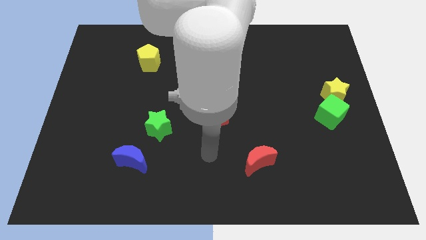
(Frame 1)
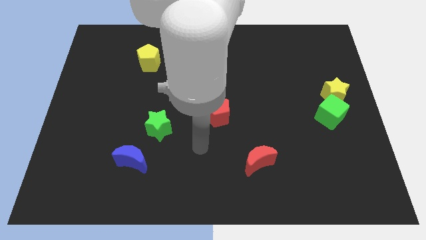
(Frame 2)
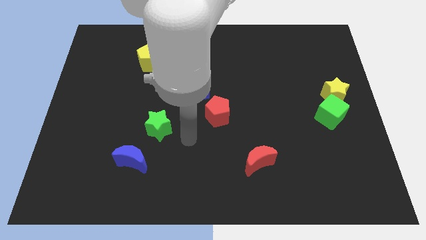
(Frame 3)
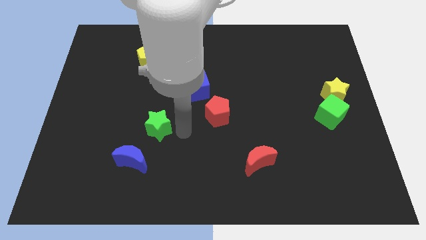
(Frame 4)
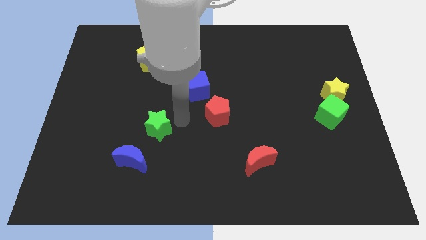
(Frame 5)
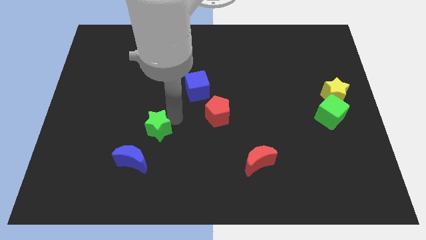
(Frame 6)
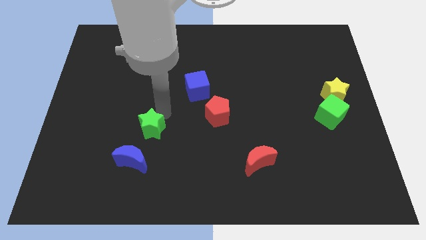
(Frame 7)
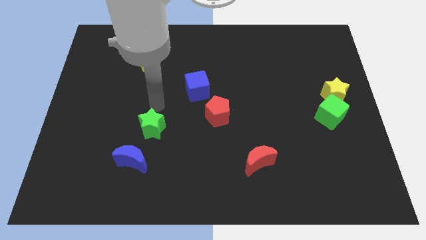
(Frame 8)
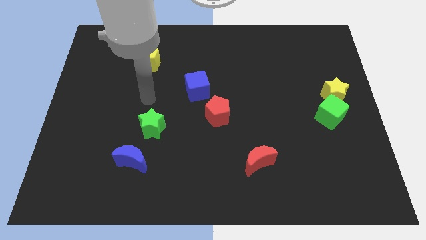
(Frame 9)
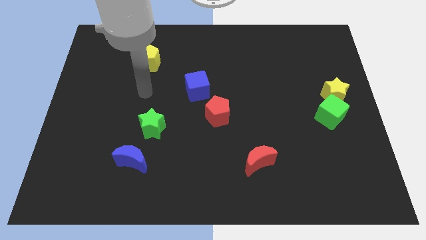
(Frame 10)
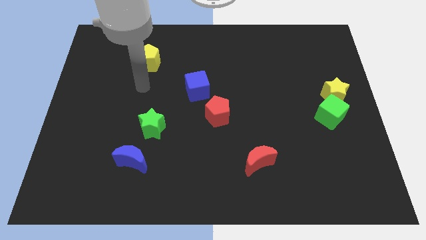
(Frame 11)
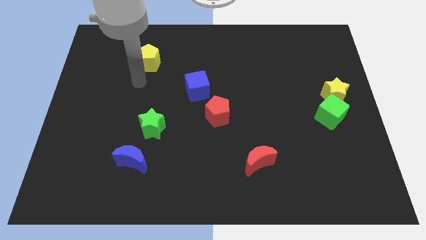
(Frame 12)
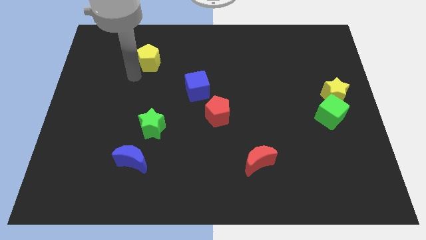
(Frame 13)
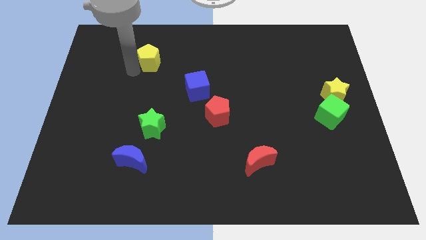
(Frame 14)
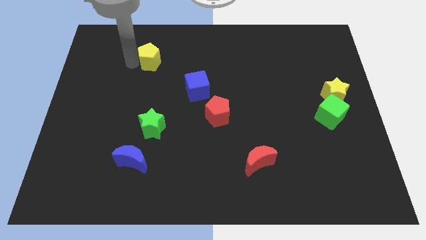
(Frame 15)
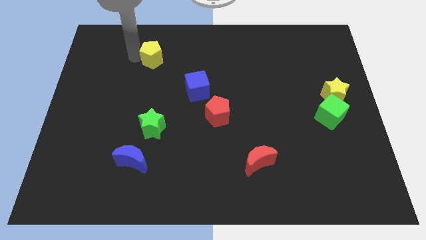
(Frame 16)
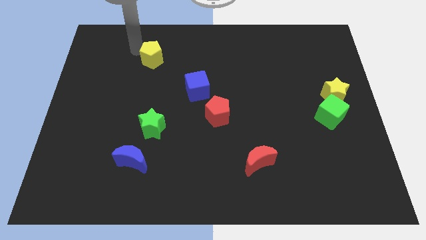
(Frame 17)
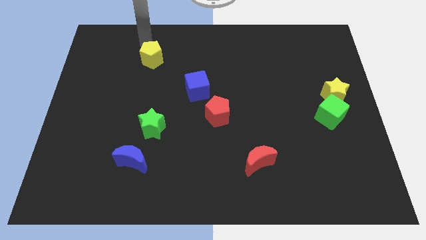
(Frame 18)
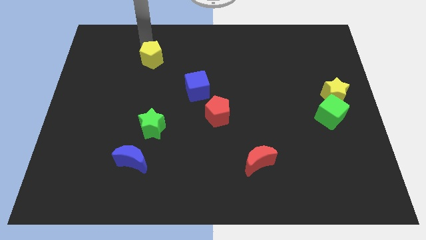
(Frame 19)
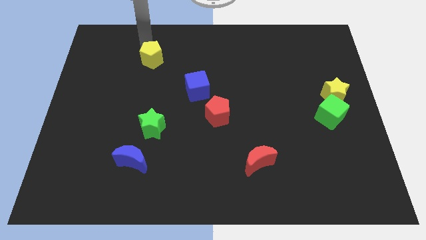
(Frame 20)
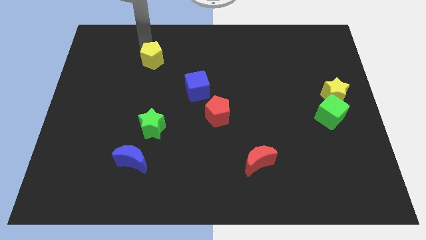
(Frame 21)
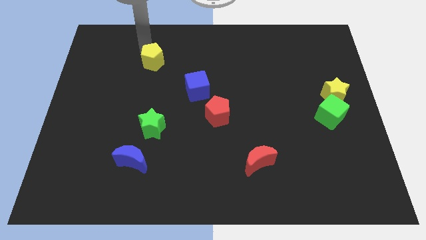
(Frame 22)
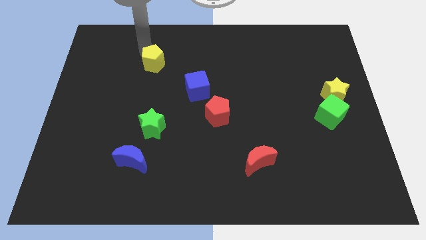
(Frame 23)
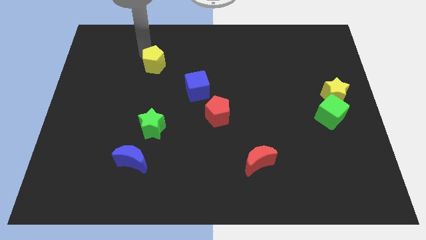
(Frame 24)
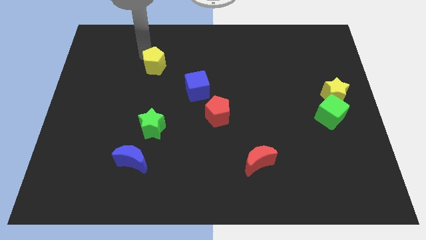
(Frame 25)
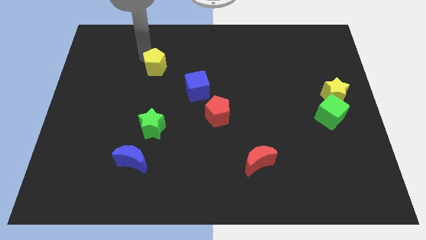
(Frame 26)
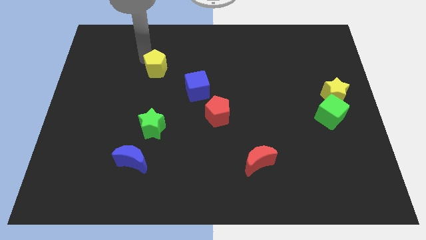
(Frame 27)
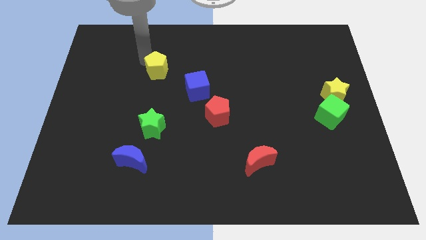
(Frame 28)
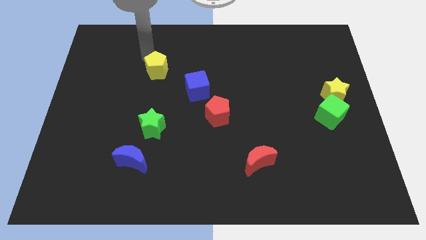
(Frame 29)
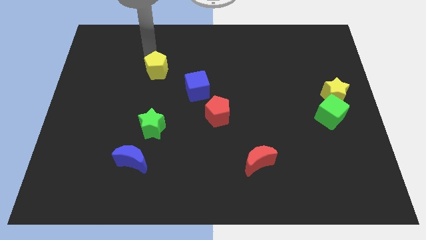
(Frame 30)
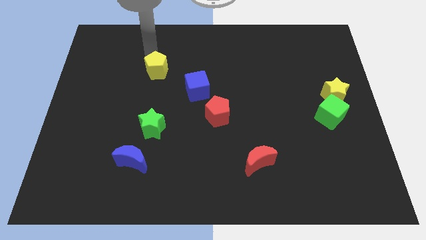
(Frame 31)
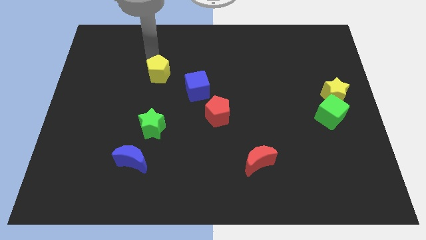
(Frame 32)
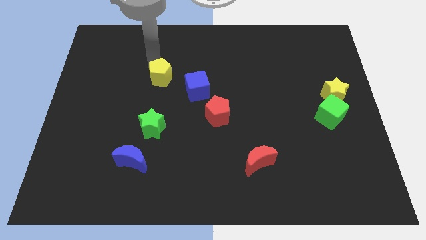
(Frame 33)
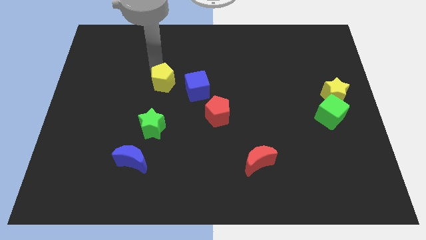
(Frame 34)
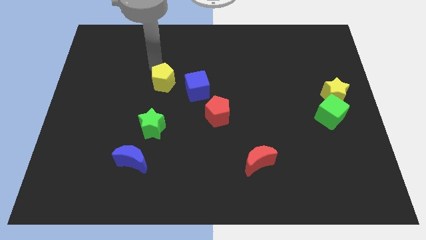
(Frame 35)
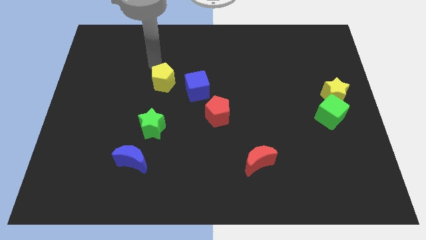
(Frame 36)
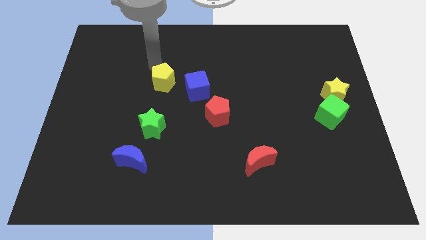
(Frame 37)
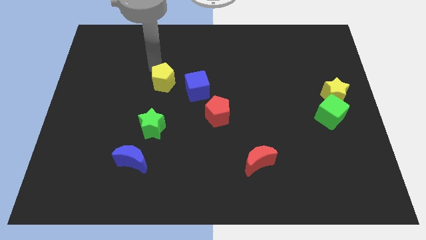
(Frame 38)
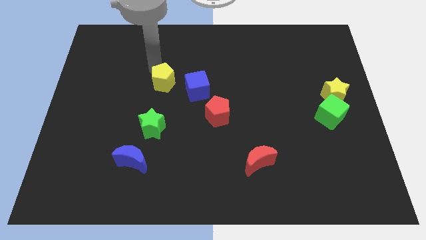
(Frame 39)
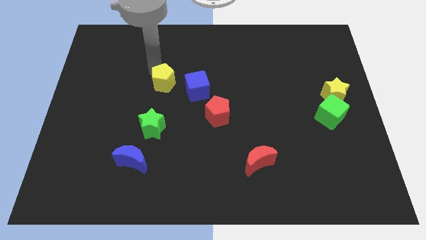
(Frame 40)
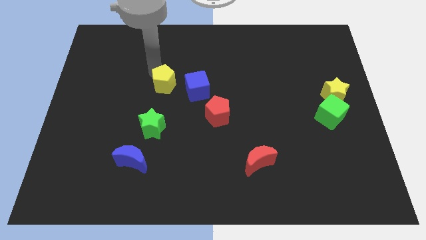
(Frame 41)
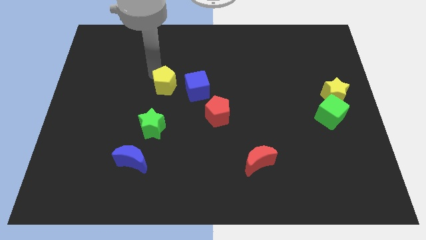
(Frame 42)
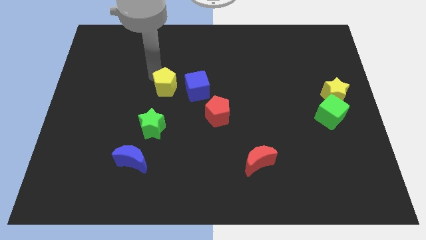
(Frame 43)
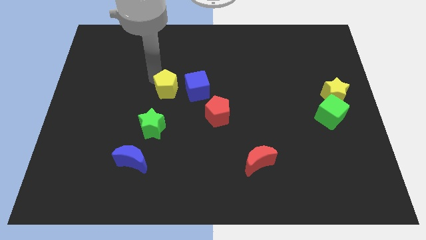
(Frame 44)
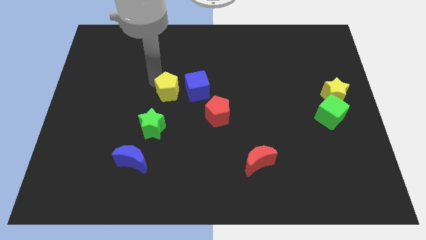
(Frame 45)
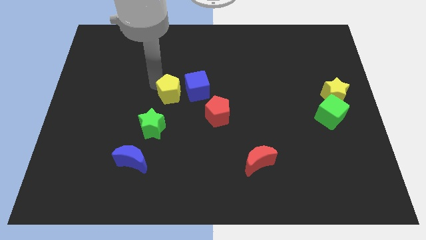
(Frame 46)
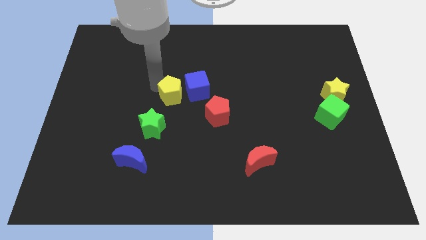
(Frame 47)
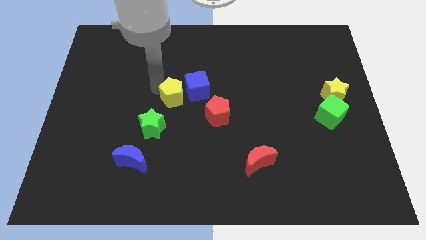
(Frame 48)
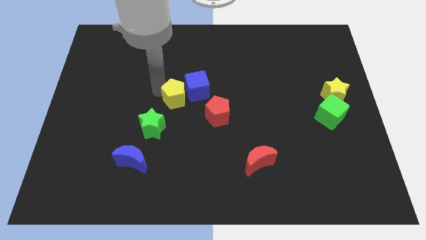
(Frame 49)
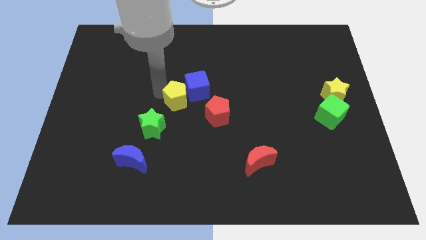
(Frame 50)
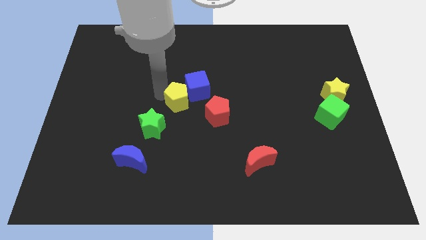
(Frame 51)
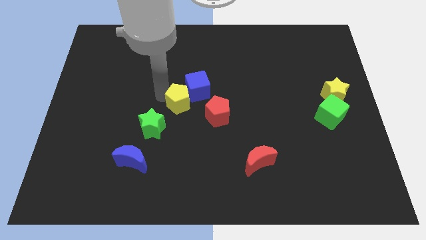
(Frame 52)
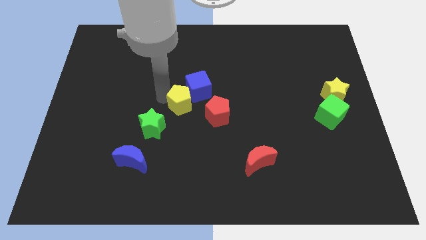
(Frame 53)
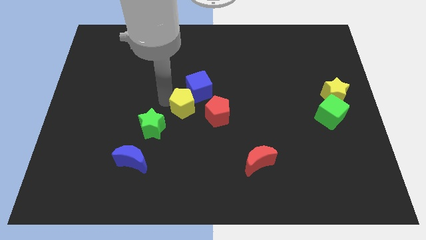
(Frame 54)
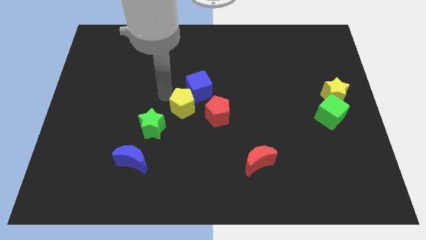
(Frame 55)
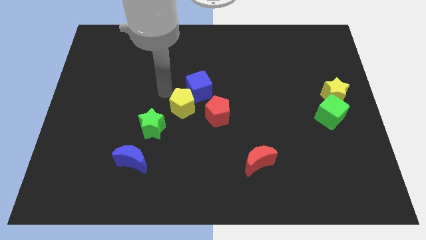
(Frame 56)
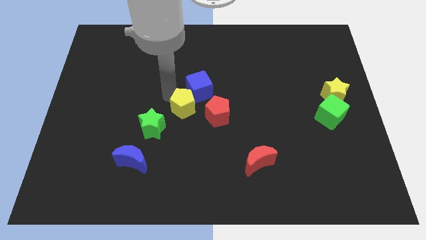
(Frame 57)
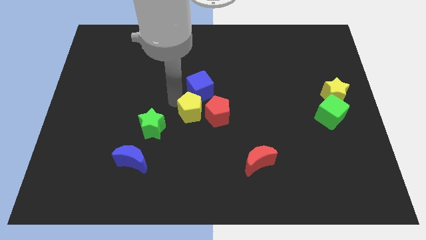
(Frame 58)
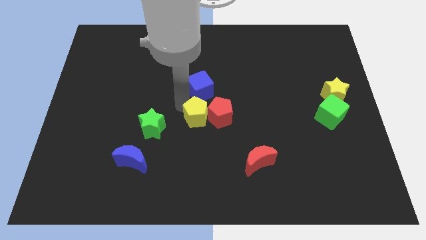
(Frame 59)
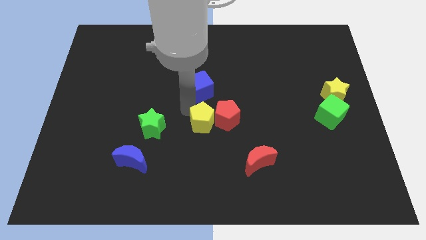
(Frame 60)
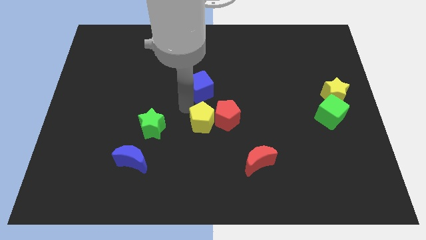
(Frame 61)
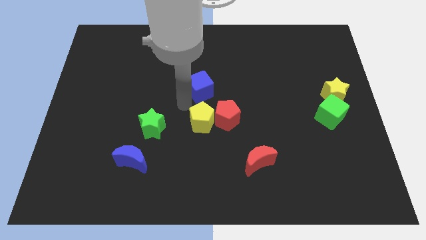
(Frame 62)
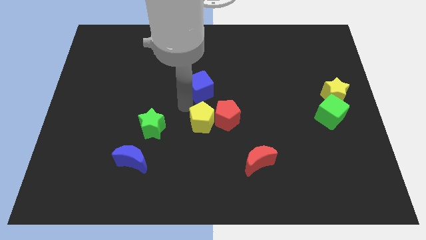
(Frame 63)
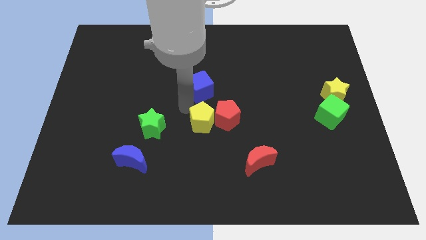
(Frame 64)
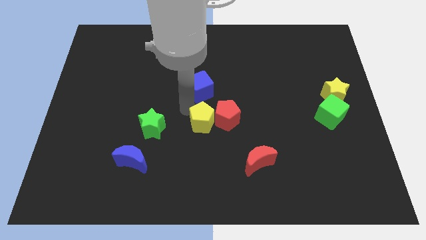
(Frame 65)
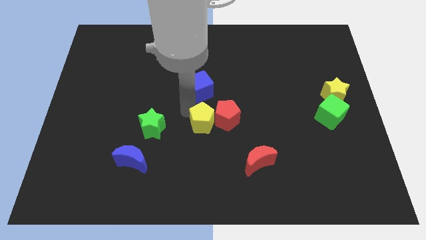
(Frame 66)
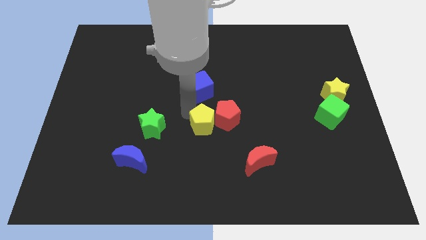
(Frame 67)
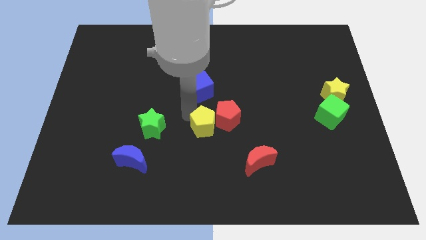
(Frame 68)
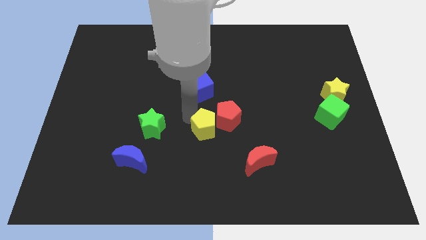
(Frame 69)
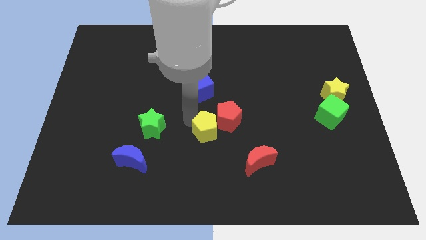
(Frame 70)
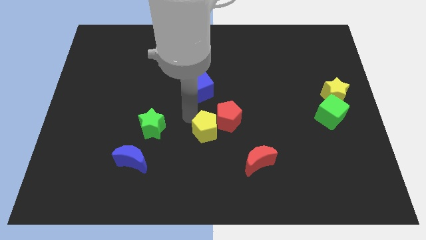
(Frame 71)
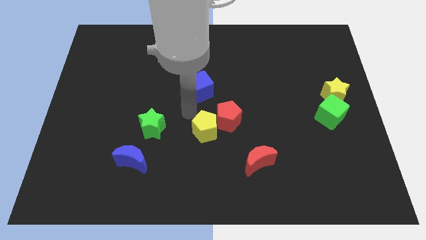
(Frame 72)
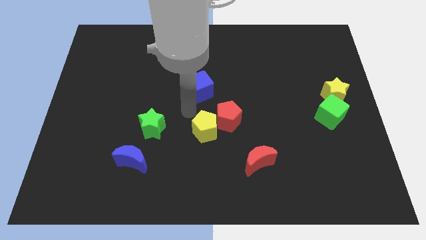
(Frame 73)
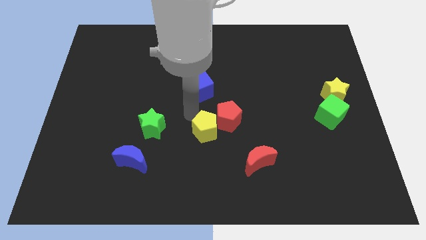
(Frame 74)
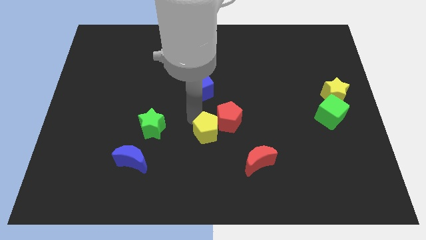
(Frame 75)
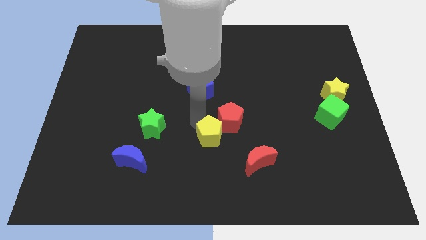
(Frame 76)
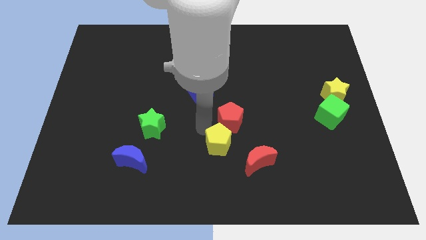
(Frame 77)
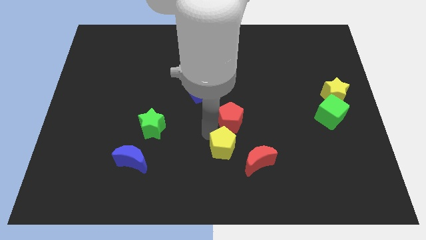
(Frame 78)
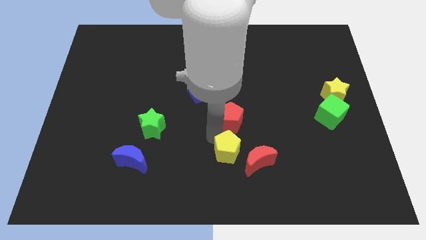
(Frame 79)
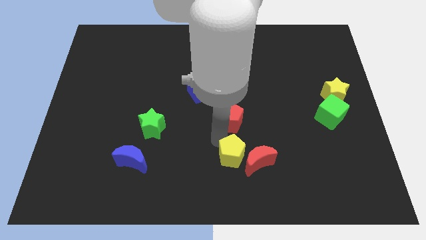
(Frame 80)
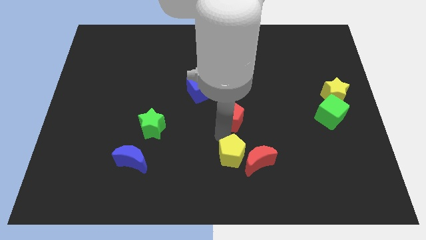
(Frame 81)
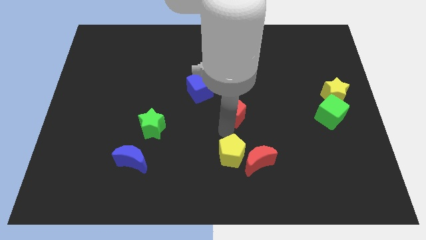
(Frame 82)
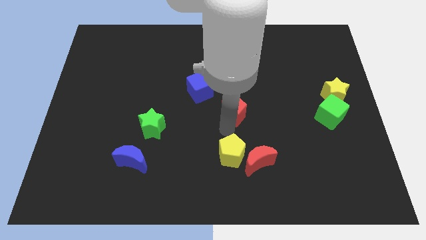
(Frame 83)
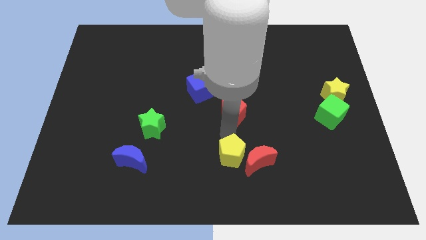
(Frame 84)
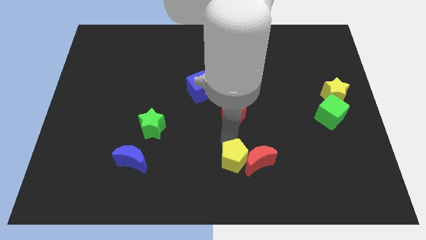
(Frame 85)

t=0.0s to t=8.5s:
put the yellow pentagon diagonally down and to the left of the red moon
